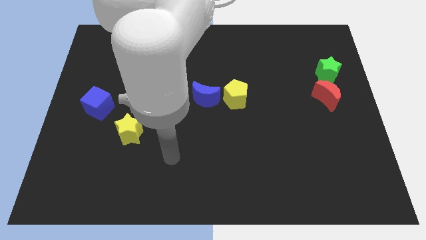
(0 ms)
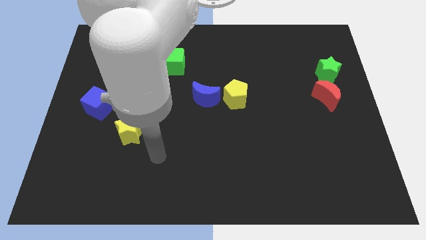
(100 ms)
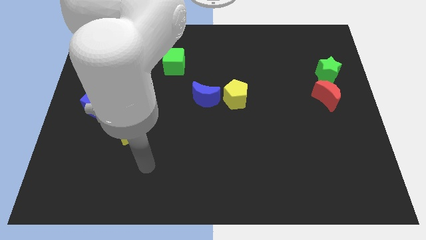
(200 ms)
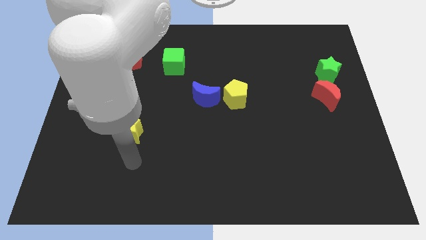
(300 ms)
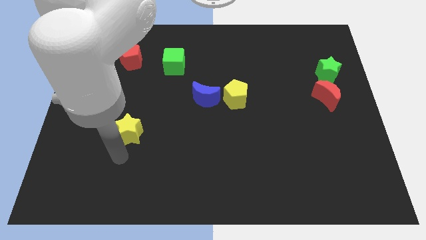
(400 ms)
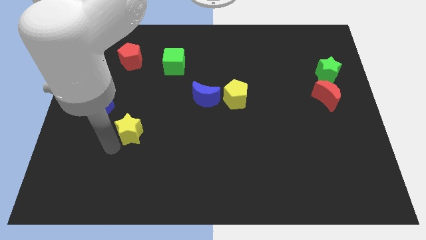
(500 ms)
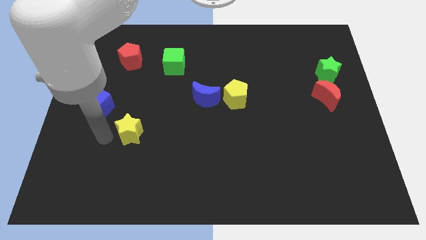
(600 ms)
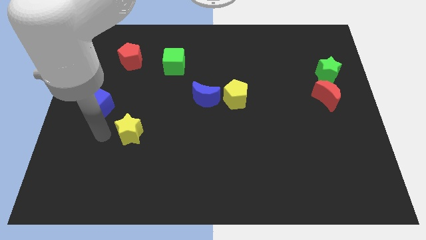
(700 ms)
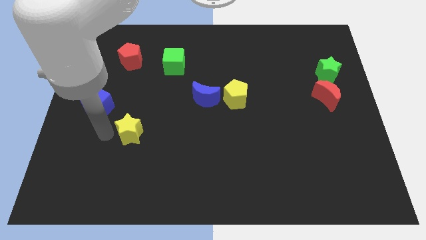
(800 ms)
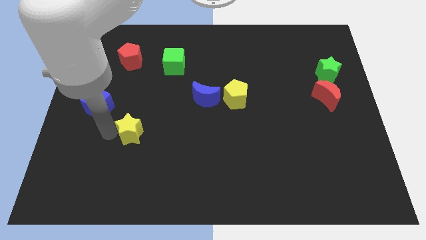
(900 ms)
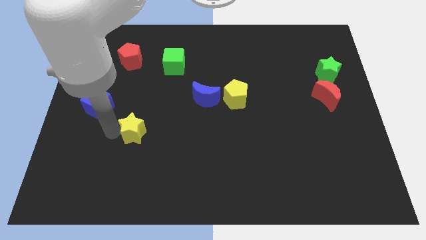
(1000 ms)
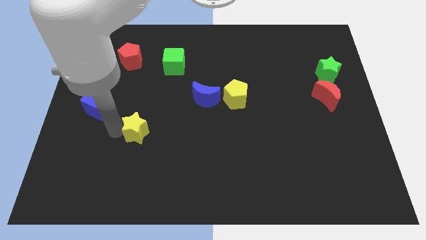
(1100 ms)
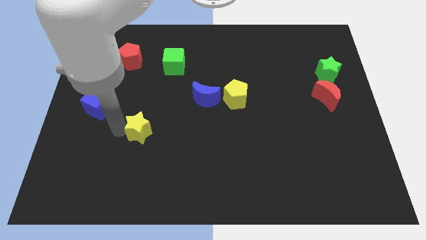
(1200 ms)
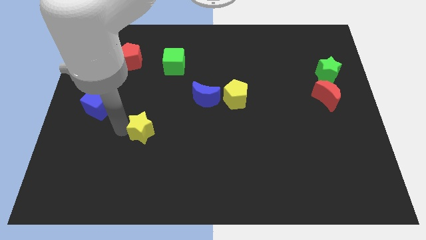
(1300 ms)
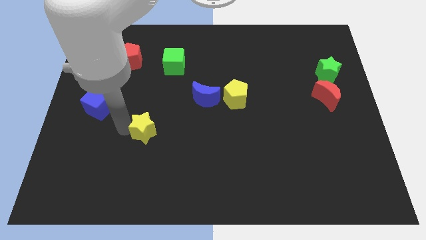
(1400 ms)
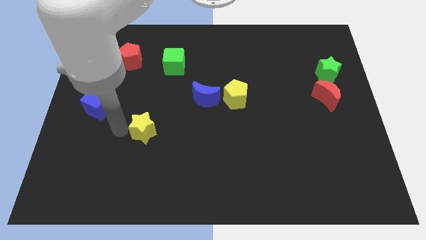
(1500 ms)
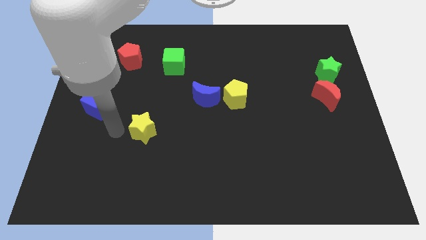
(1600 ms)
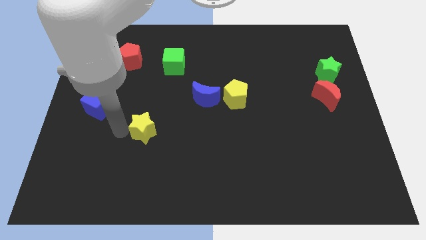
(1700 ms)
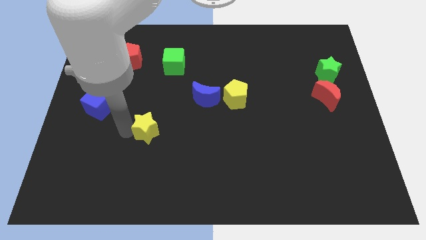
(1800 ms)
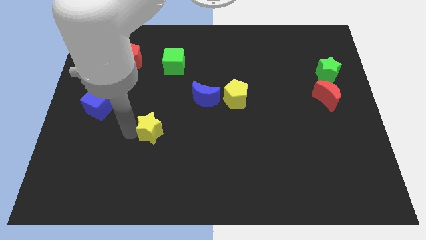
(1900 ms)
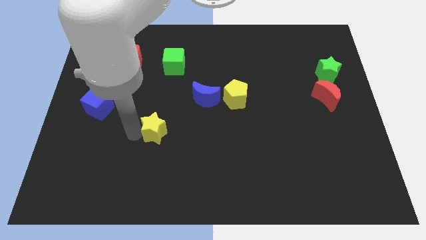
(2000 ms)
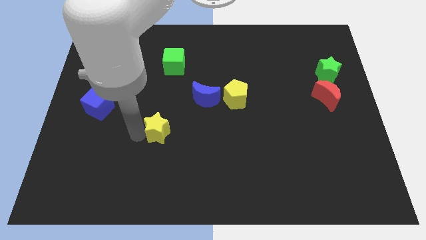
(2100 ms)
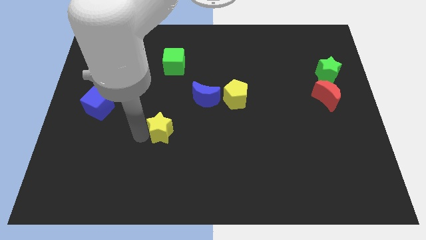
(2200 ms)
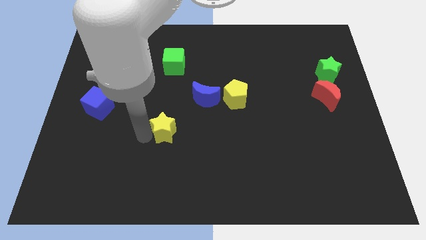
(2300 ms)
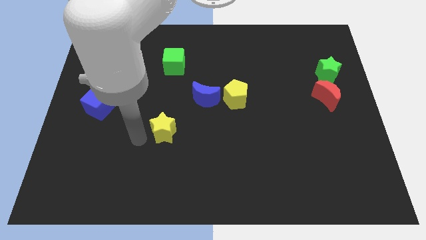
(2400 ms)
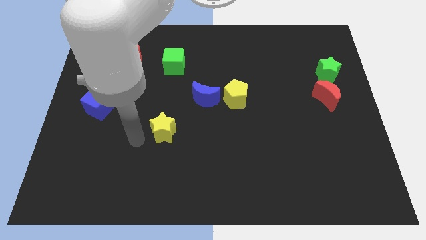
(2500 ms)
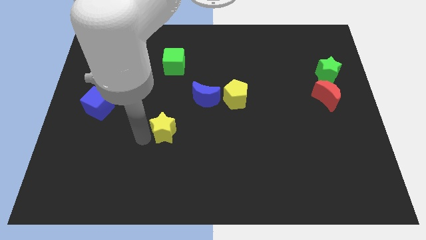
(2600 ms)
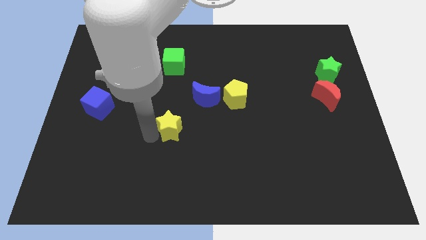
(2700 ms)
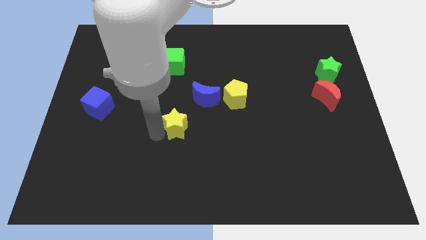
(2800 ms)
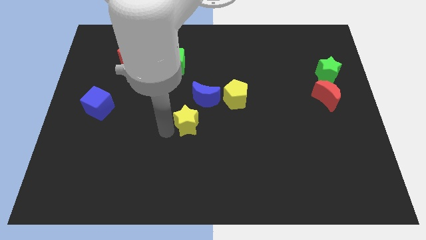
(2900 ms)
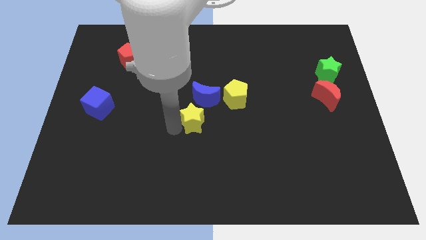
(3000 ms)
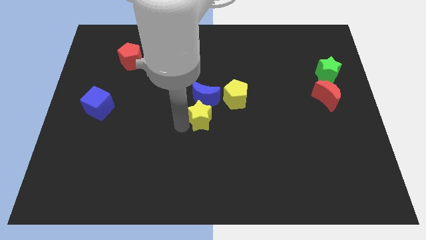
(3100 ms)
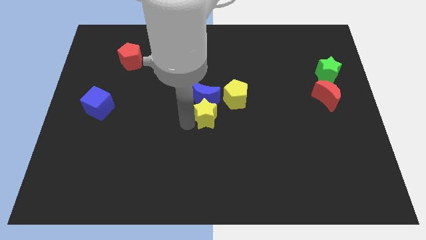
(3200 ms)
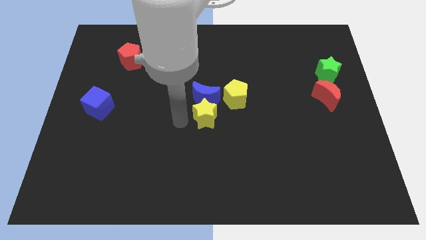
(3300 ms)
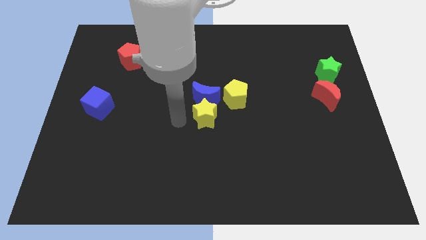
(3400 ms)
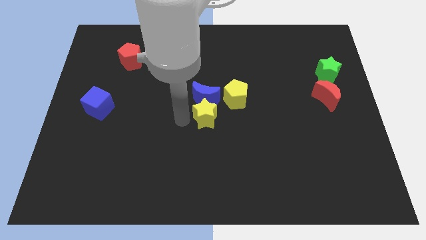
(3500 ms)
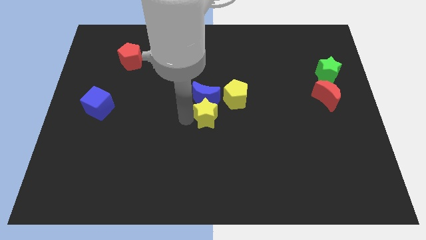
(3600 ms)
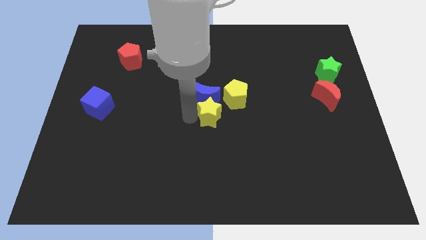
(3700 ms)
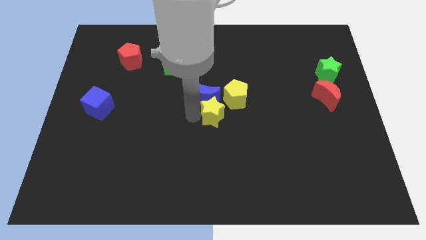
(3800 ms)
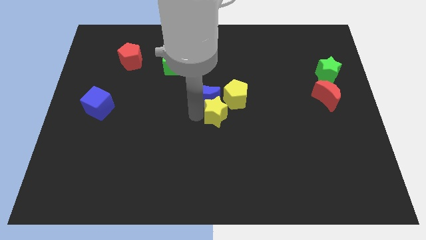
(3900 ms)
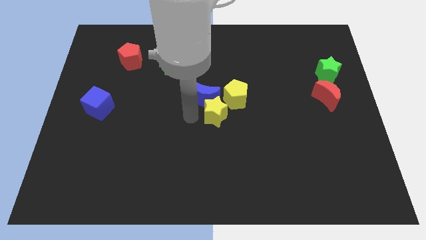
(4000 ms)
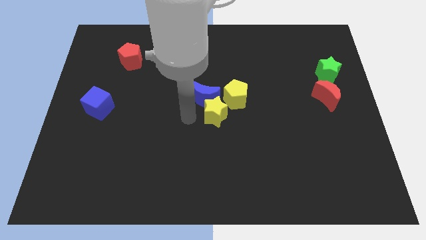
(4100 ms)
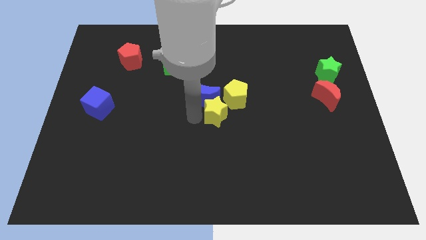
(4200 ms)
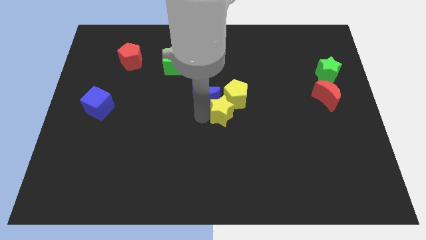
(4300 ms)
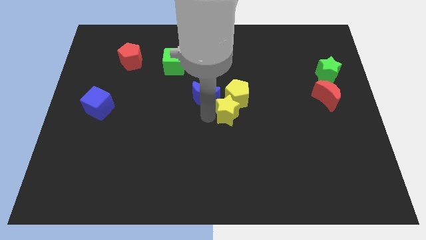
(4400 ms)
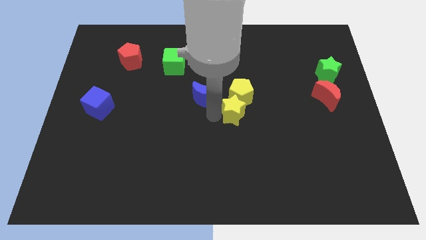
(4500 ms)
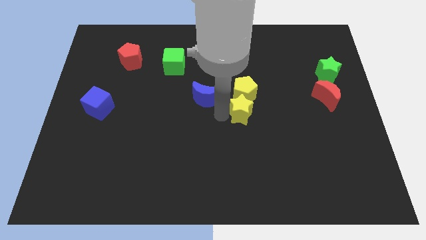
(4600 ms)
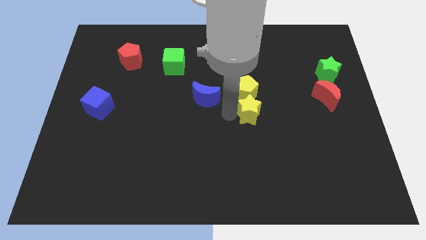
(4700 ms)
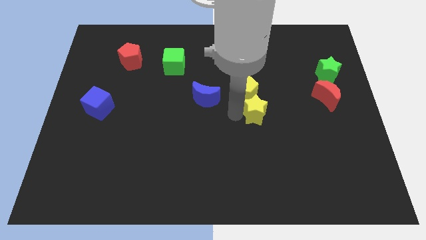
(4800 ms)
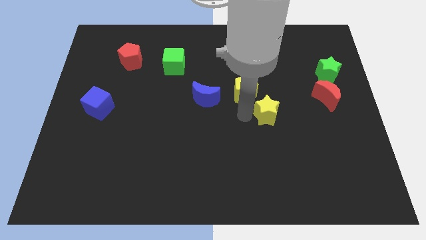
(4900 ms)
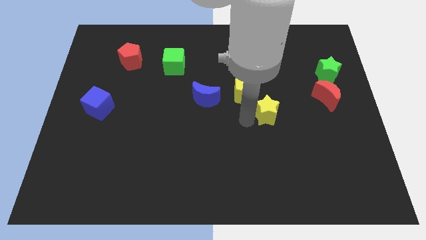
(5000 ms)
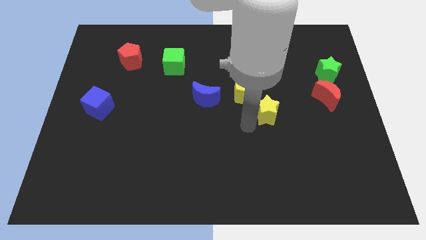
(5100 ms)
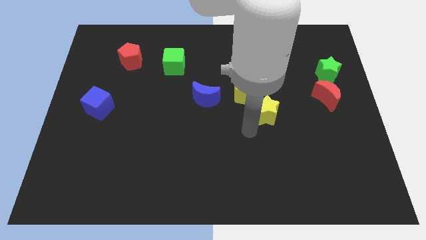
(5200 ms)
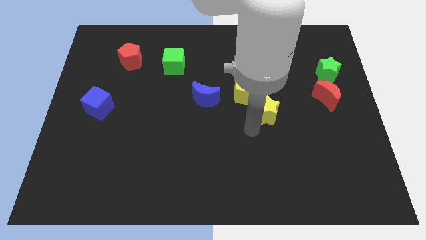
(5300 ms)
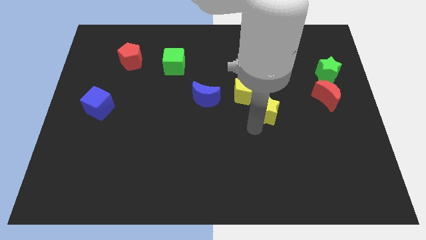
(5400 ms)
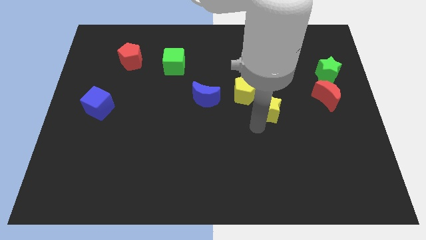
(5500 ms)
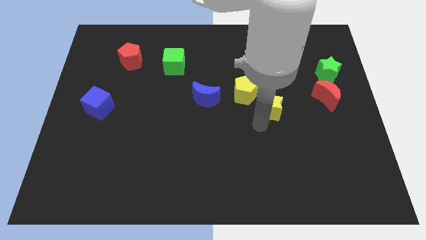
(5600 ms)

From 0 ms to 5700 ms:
push the yellow star to the left side of the red moon

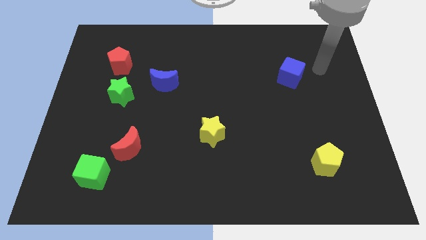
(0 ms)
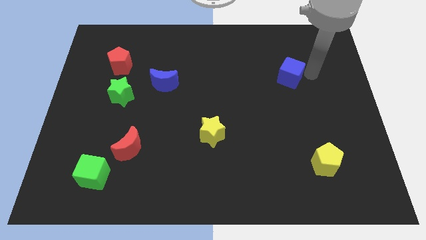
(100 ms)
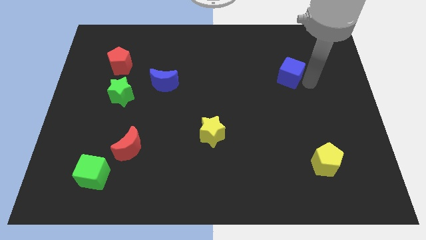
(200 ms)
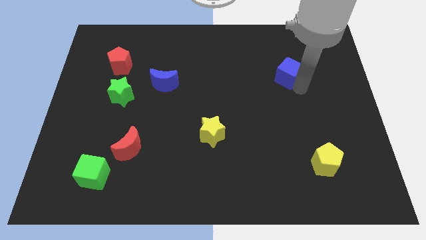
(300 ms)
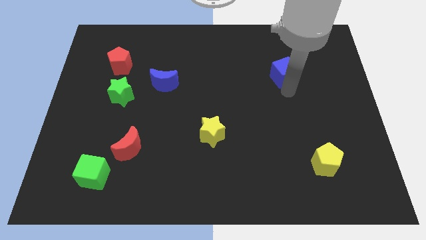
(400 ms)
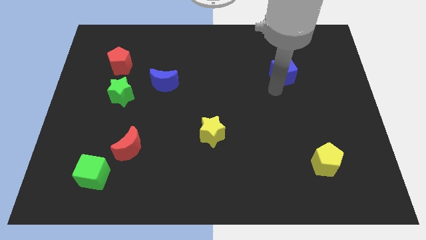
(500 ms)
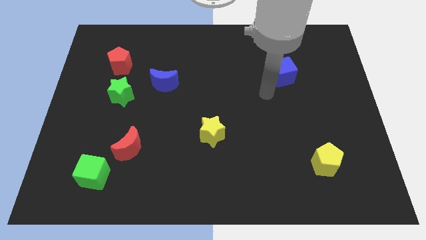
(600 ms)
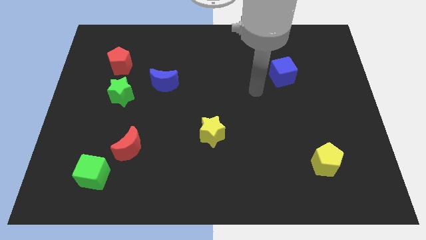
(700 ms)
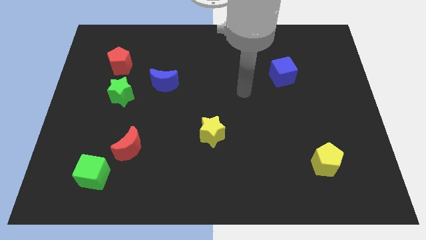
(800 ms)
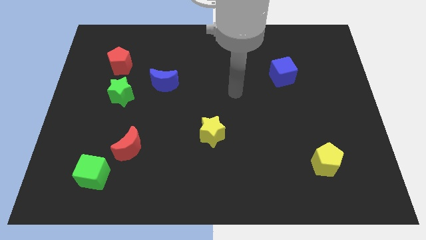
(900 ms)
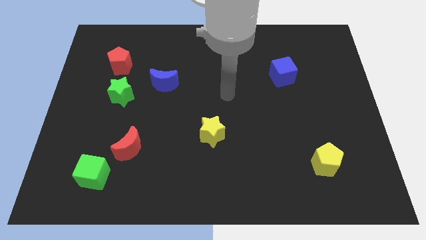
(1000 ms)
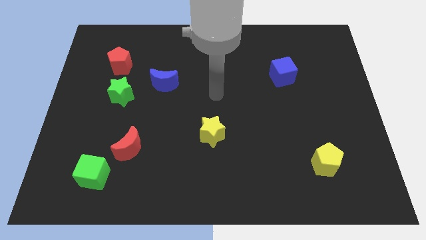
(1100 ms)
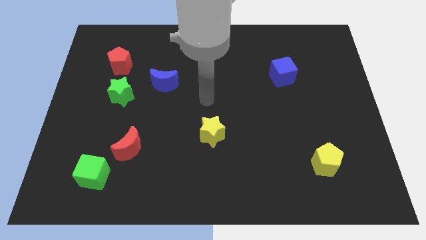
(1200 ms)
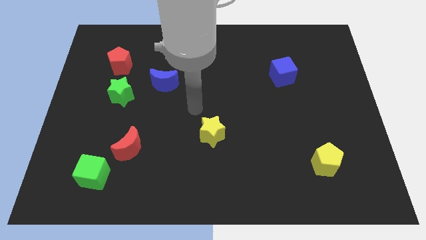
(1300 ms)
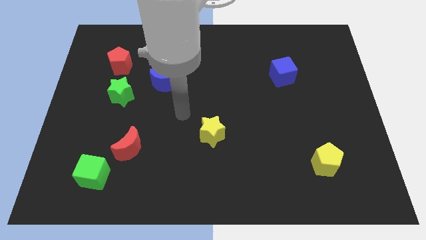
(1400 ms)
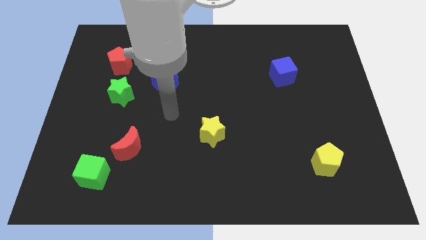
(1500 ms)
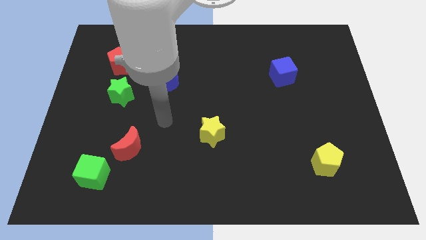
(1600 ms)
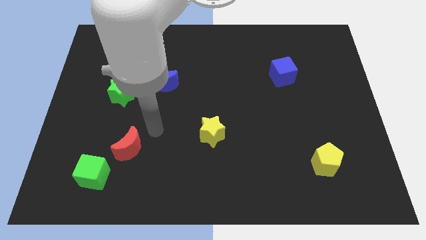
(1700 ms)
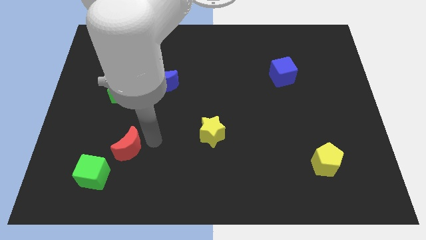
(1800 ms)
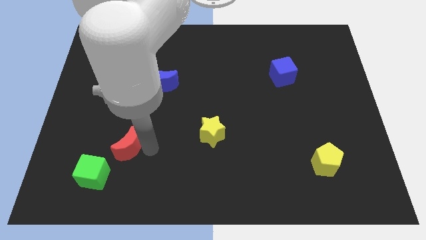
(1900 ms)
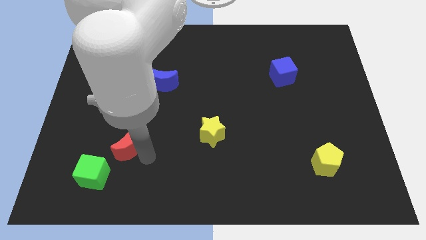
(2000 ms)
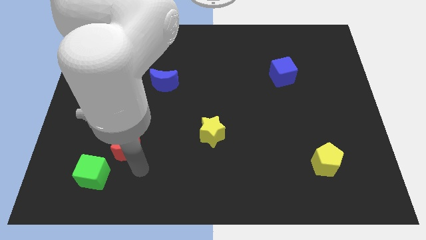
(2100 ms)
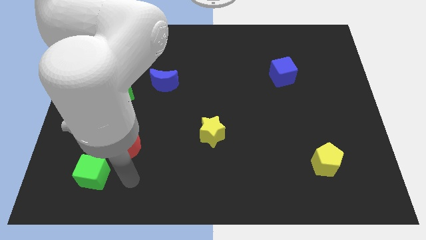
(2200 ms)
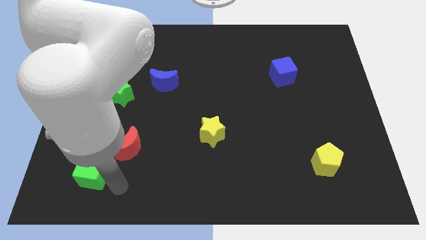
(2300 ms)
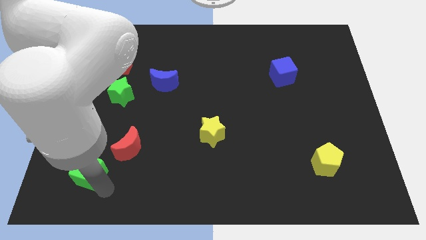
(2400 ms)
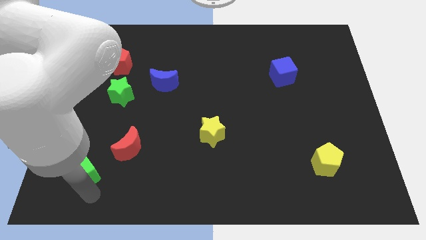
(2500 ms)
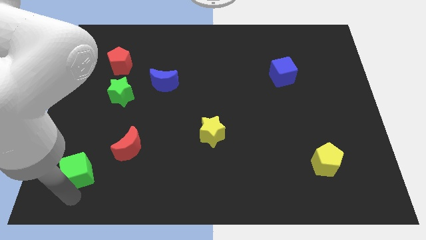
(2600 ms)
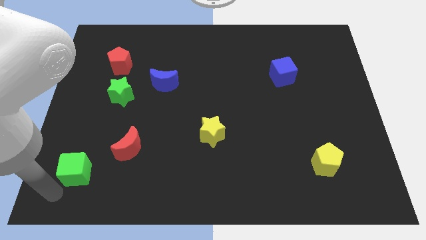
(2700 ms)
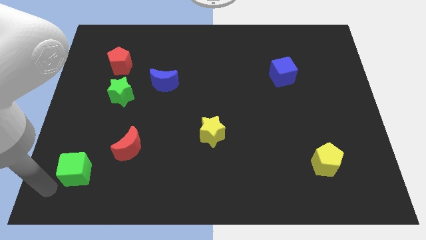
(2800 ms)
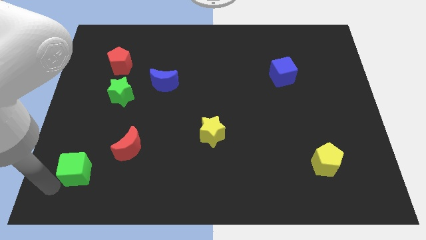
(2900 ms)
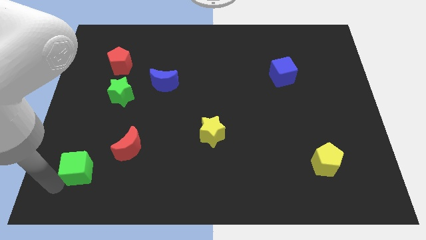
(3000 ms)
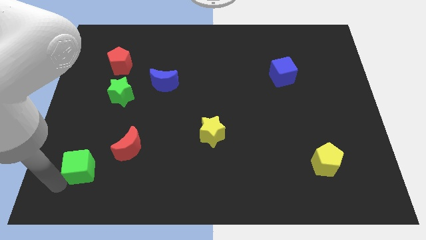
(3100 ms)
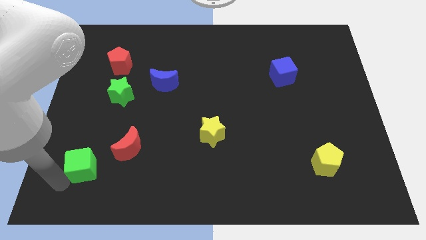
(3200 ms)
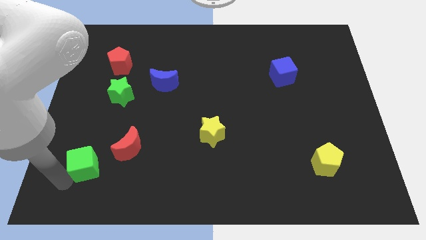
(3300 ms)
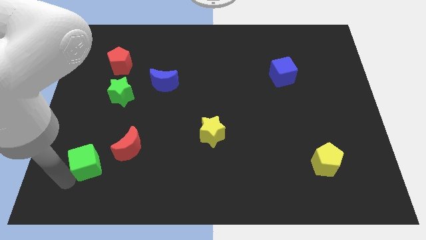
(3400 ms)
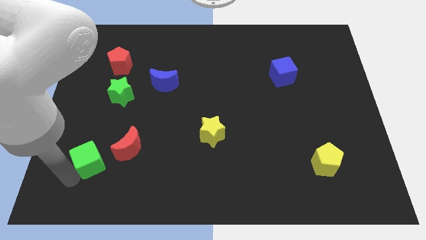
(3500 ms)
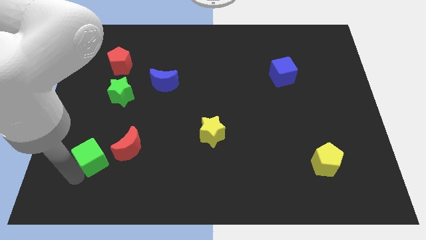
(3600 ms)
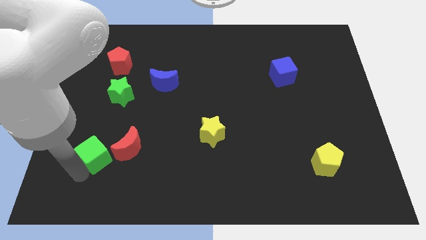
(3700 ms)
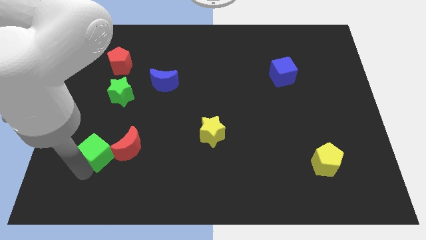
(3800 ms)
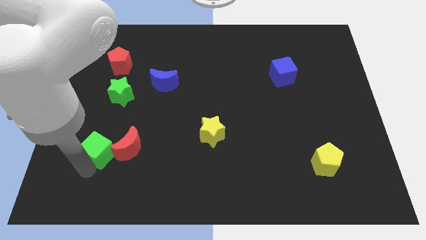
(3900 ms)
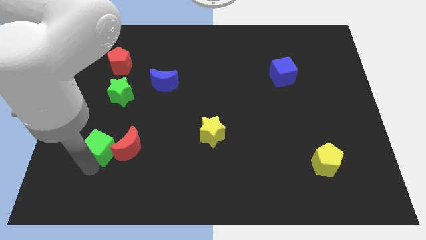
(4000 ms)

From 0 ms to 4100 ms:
slide the green cube below the green star
